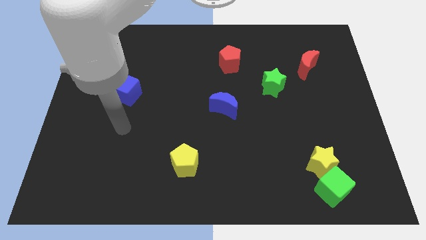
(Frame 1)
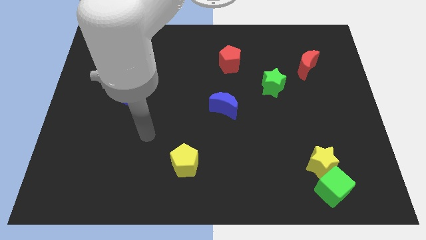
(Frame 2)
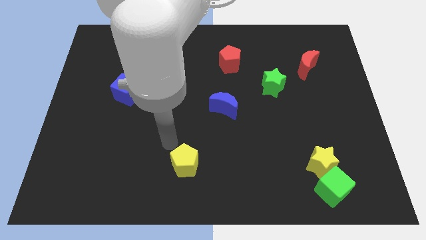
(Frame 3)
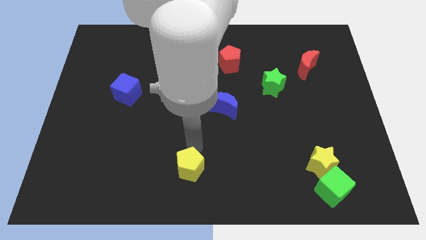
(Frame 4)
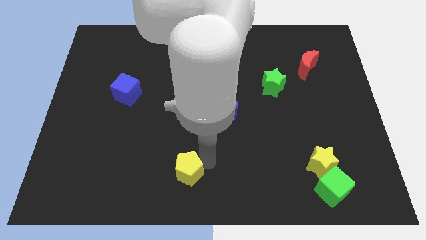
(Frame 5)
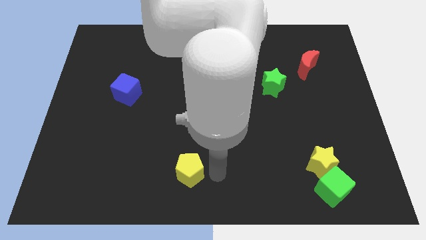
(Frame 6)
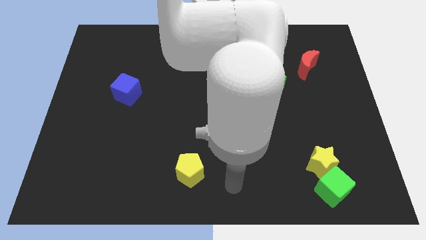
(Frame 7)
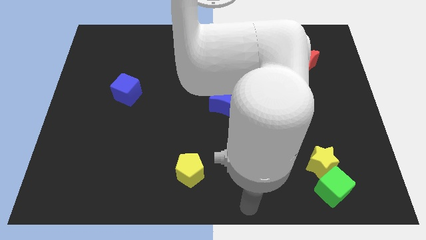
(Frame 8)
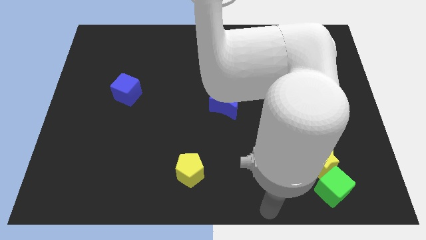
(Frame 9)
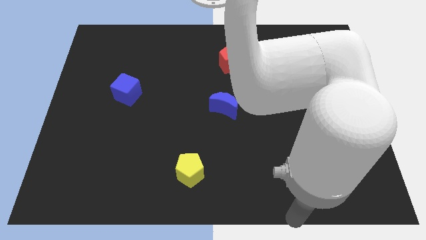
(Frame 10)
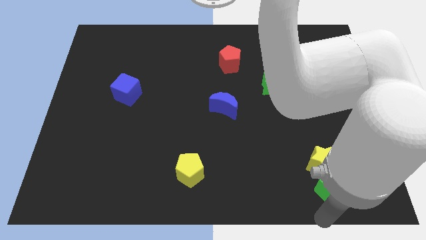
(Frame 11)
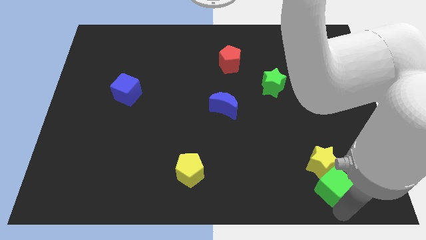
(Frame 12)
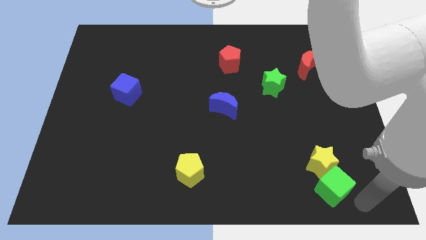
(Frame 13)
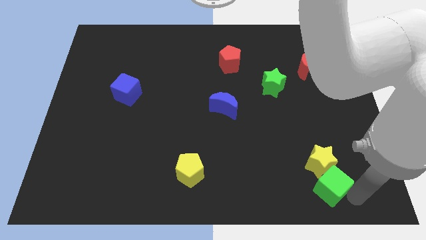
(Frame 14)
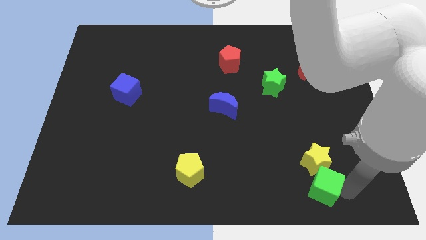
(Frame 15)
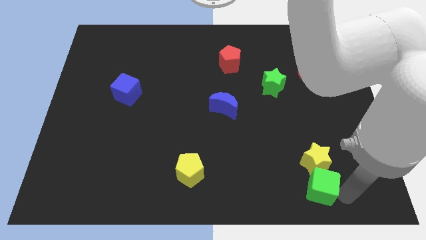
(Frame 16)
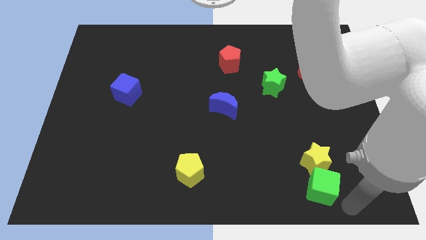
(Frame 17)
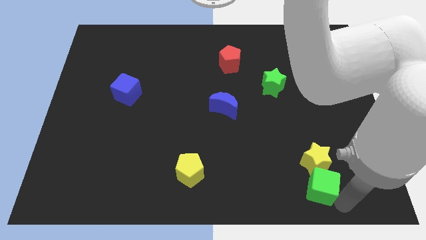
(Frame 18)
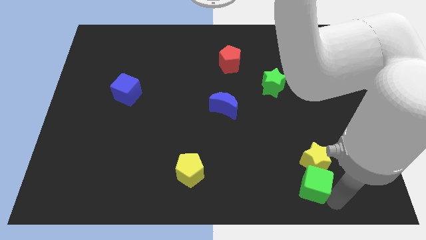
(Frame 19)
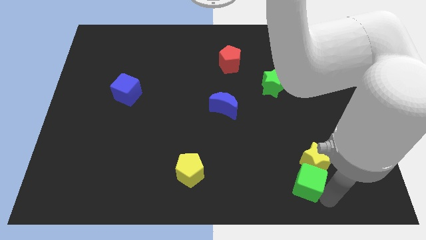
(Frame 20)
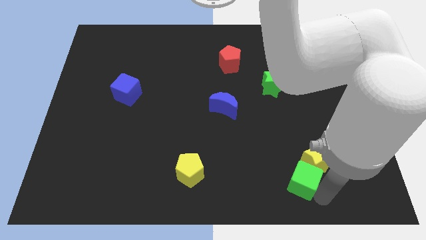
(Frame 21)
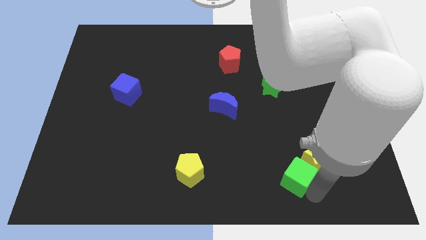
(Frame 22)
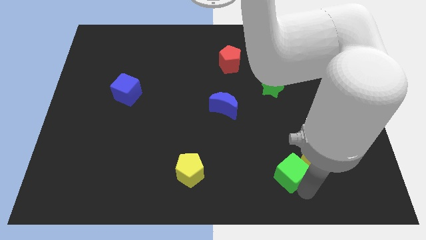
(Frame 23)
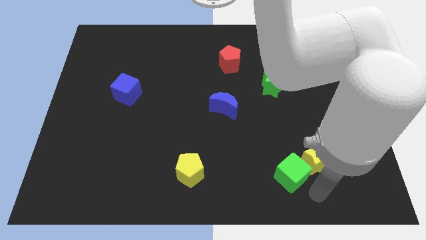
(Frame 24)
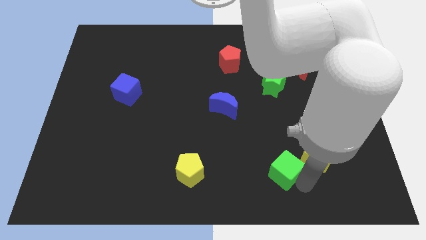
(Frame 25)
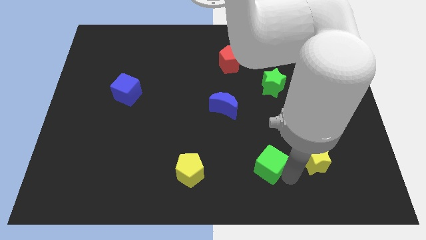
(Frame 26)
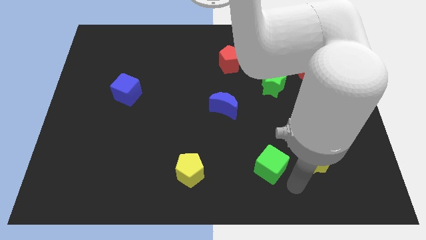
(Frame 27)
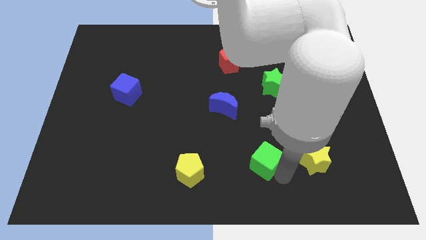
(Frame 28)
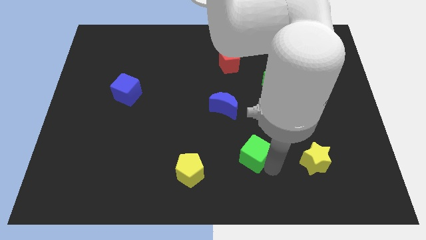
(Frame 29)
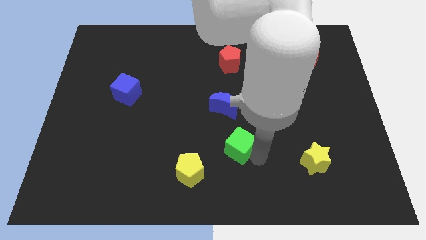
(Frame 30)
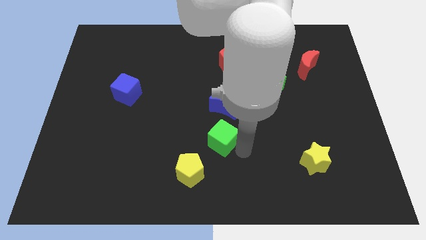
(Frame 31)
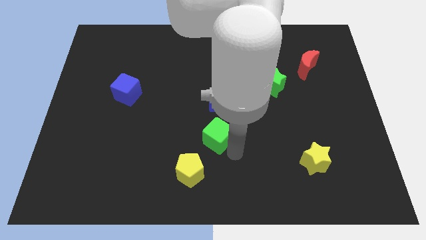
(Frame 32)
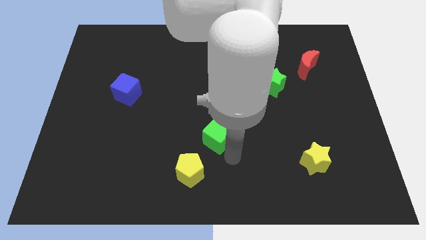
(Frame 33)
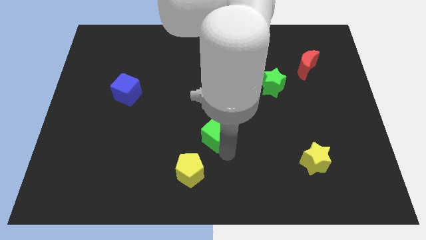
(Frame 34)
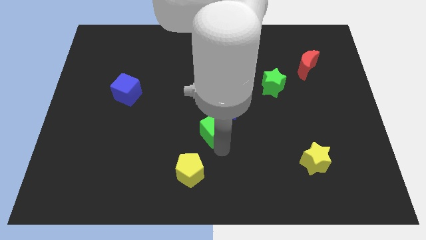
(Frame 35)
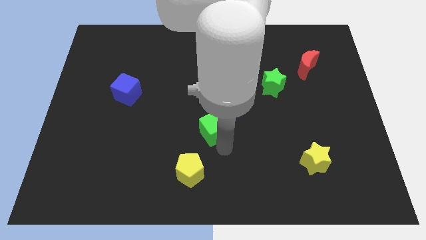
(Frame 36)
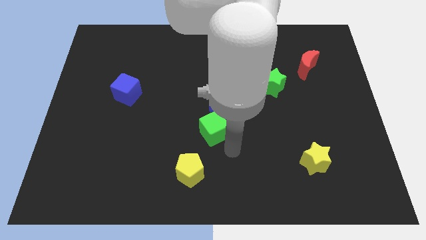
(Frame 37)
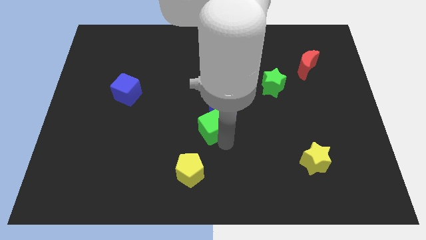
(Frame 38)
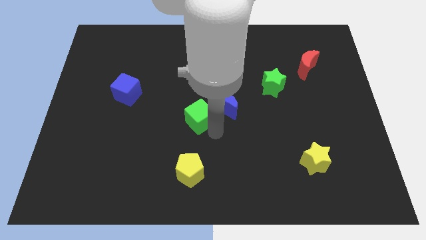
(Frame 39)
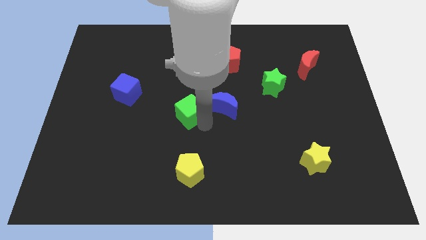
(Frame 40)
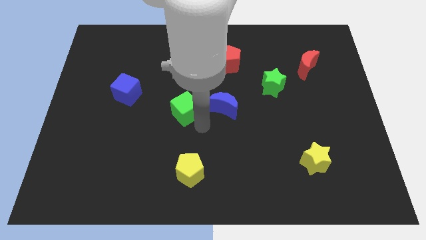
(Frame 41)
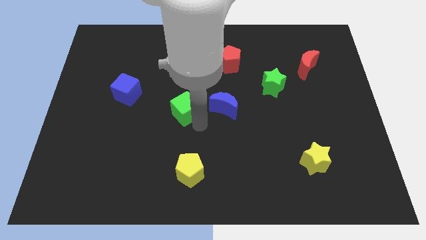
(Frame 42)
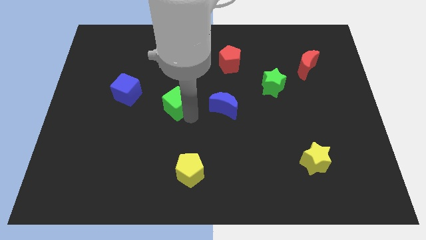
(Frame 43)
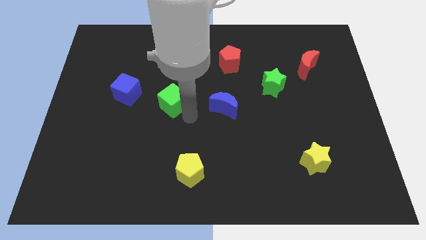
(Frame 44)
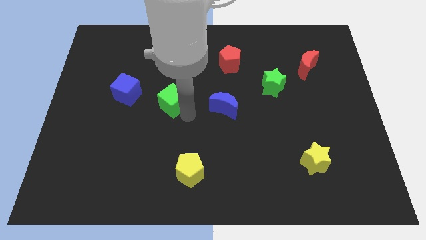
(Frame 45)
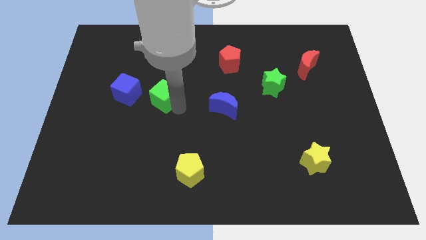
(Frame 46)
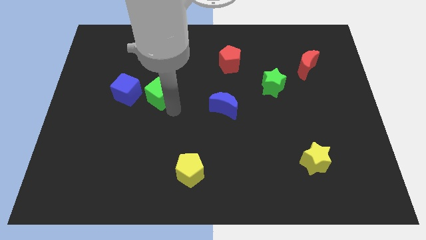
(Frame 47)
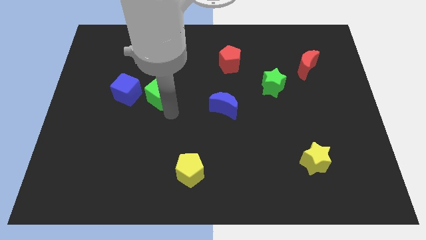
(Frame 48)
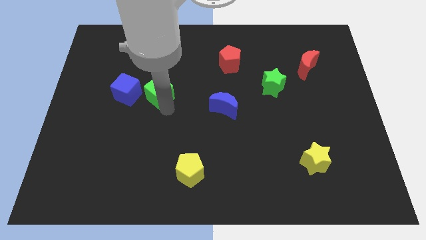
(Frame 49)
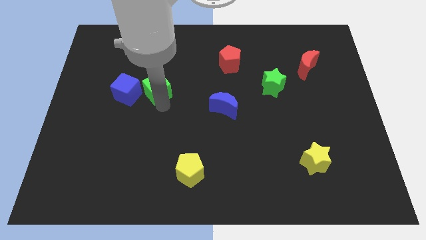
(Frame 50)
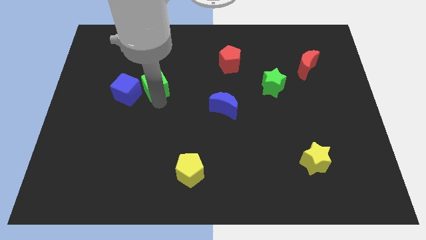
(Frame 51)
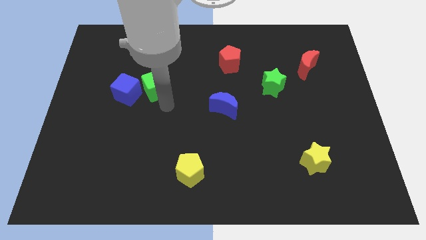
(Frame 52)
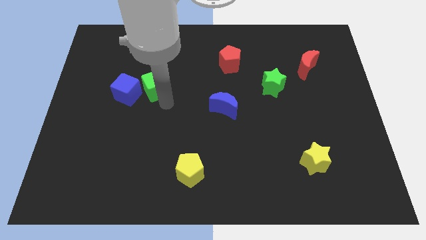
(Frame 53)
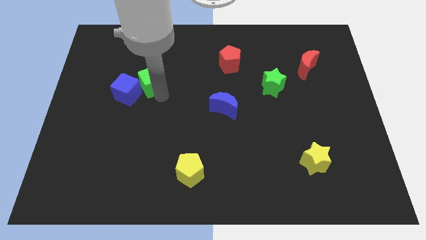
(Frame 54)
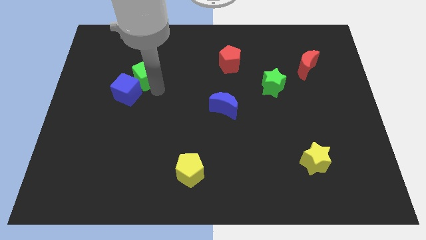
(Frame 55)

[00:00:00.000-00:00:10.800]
push the green cube above the blue cube

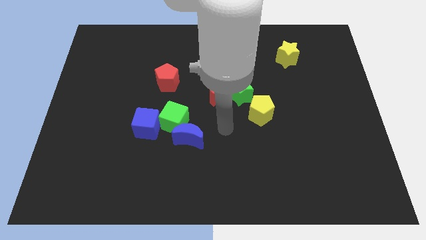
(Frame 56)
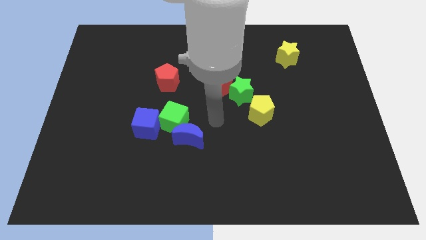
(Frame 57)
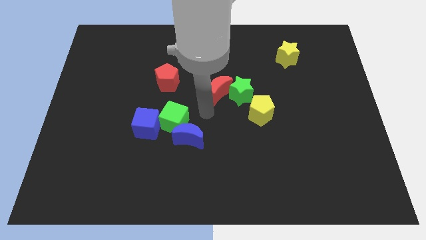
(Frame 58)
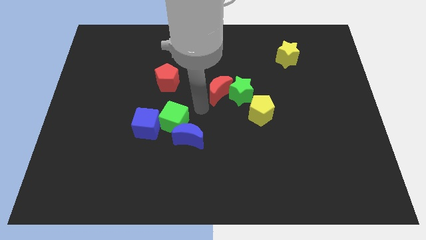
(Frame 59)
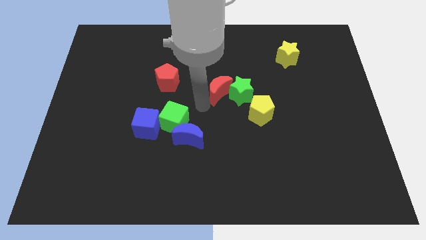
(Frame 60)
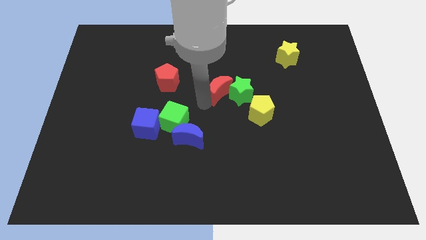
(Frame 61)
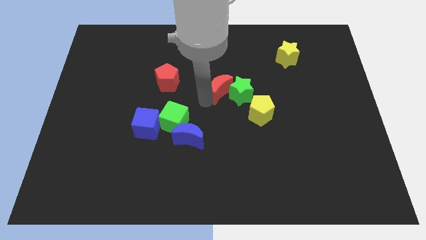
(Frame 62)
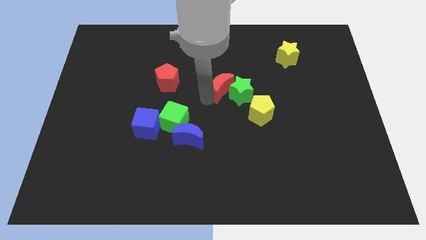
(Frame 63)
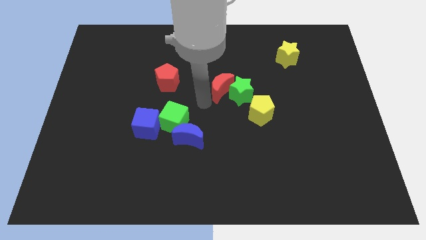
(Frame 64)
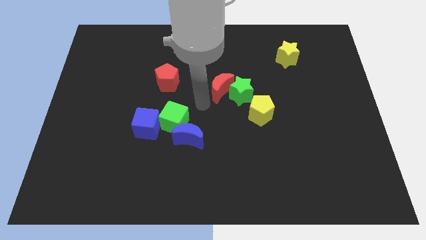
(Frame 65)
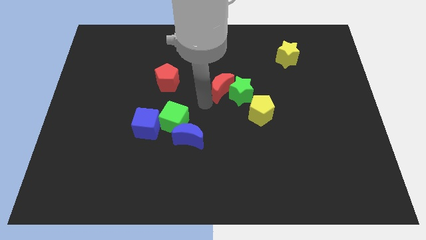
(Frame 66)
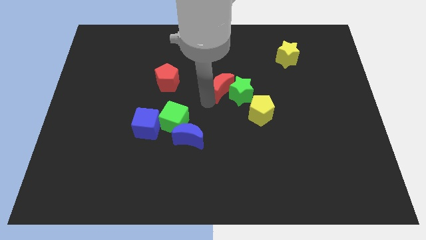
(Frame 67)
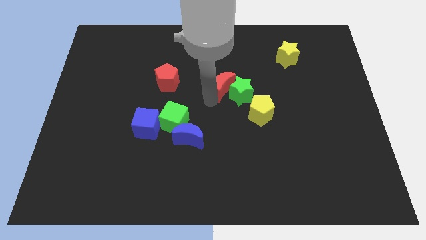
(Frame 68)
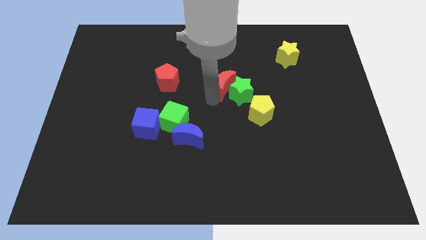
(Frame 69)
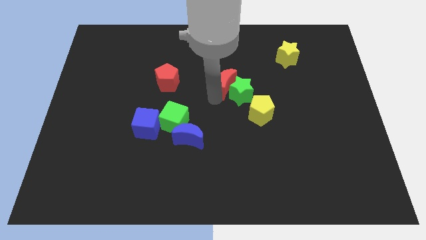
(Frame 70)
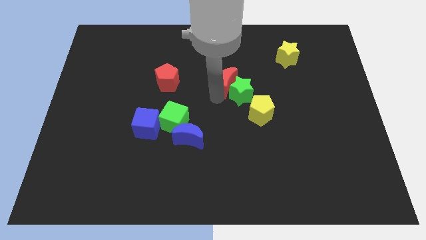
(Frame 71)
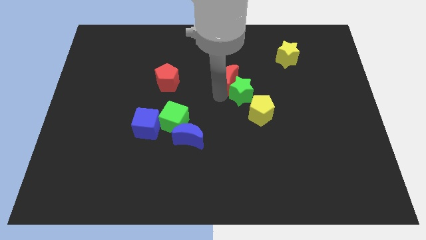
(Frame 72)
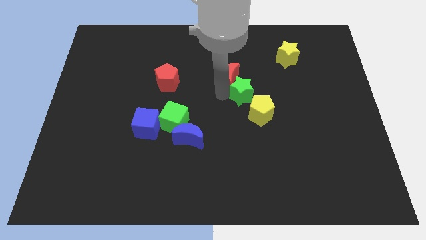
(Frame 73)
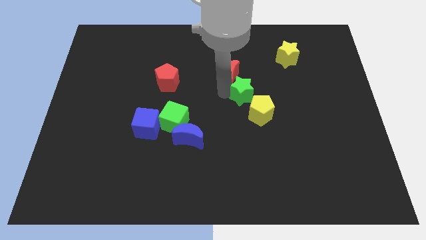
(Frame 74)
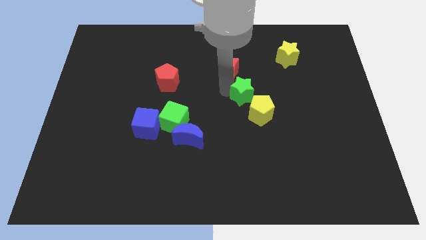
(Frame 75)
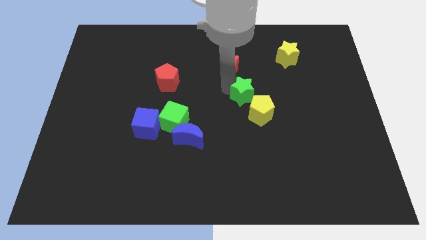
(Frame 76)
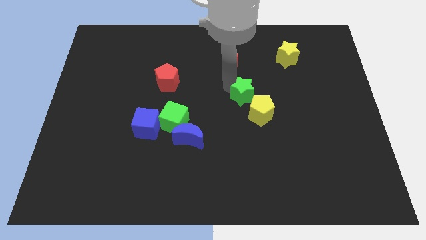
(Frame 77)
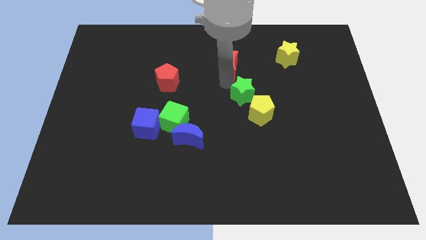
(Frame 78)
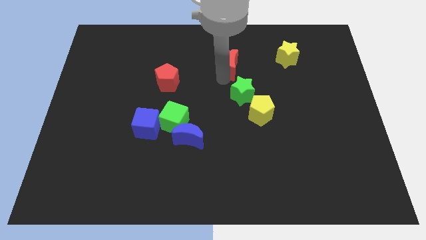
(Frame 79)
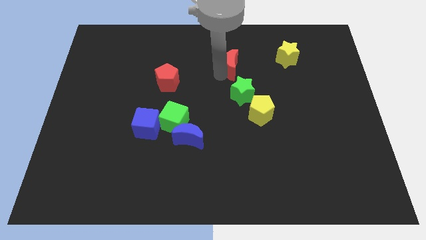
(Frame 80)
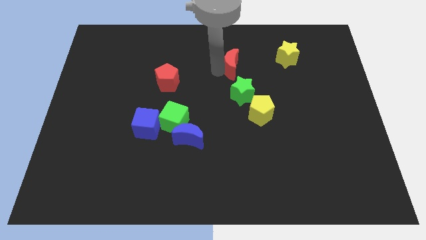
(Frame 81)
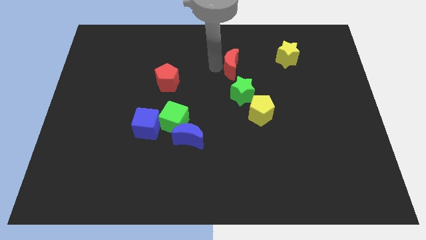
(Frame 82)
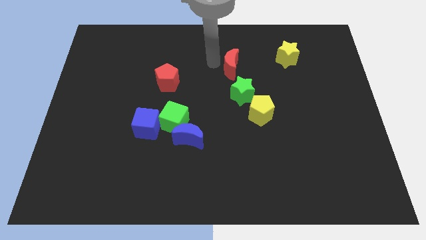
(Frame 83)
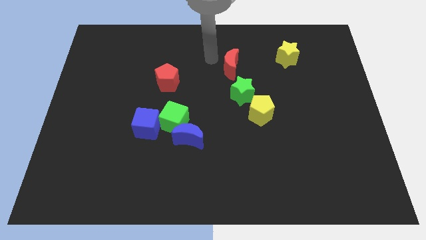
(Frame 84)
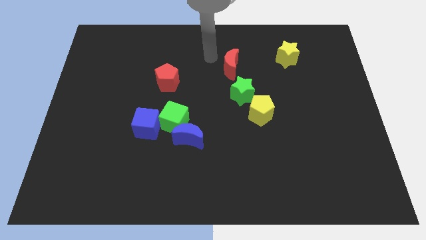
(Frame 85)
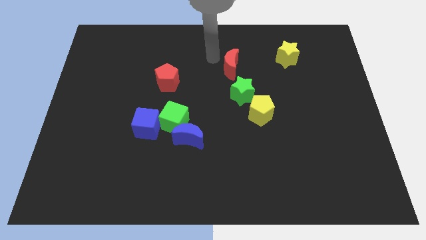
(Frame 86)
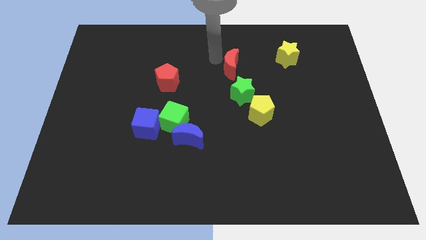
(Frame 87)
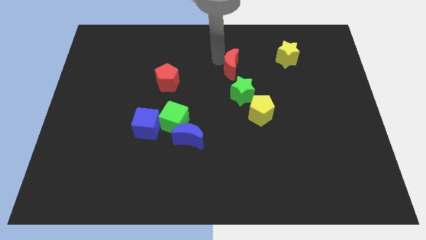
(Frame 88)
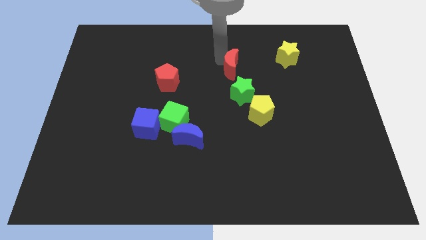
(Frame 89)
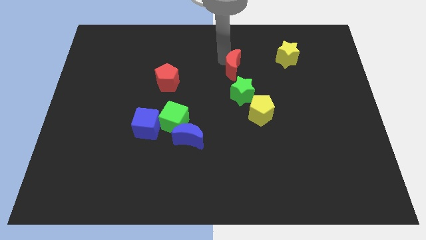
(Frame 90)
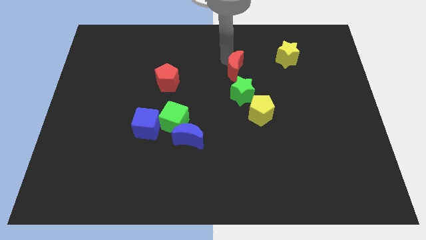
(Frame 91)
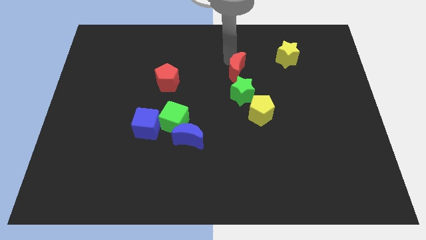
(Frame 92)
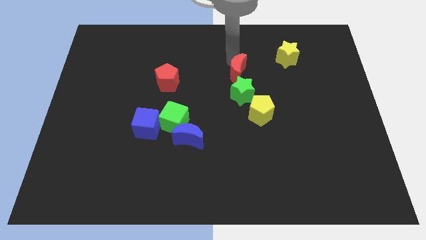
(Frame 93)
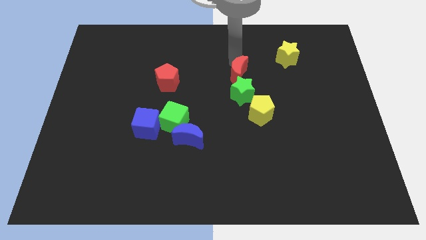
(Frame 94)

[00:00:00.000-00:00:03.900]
put the red moon to the top of the yellow pentagon
